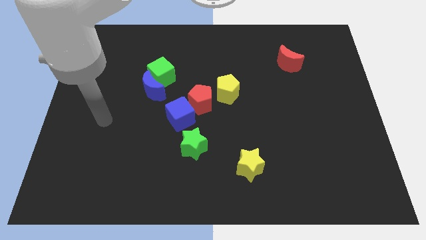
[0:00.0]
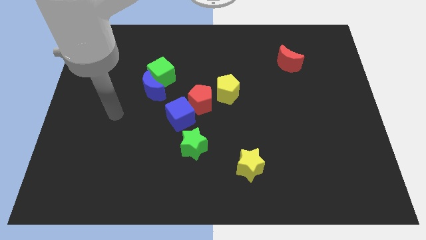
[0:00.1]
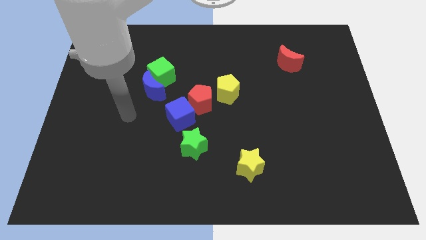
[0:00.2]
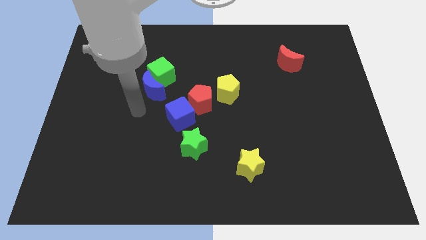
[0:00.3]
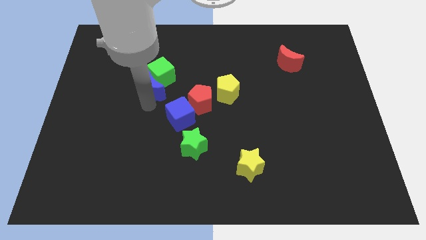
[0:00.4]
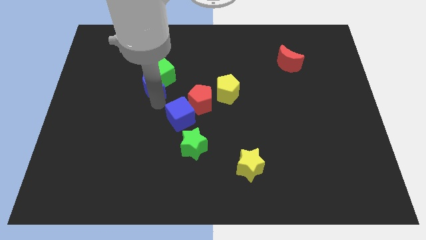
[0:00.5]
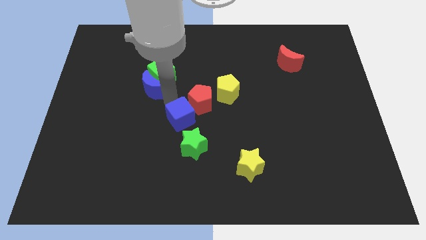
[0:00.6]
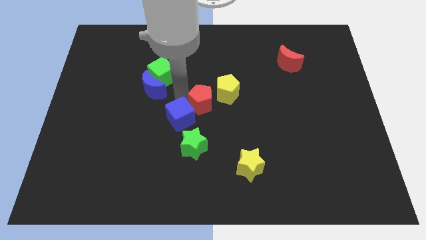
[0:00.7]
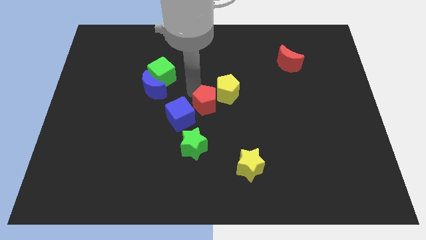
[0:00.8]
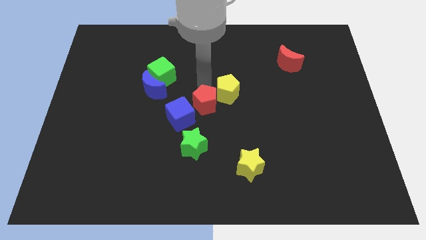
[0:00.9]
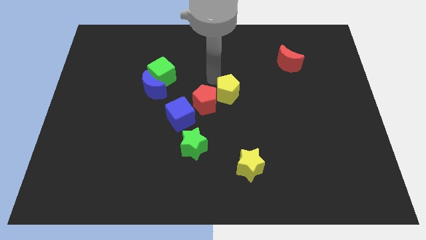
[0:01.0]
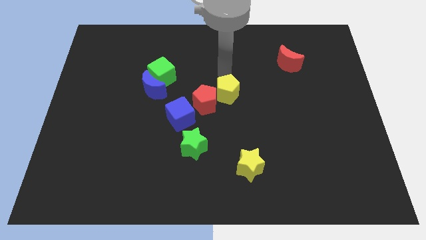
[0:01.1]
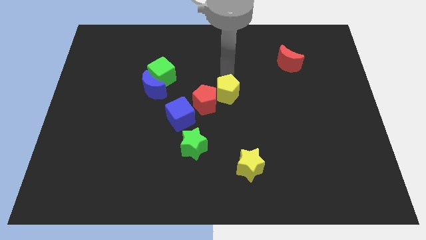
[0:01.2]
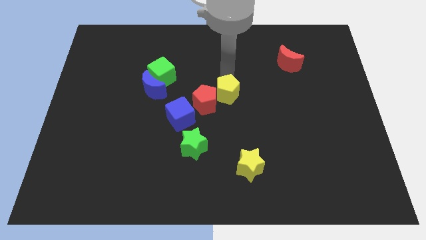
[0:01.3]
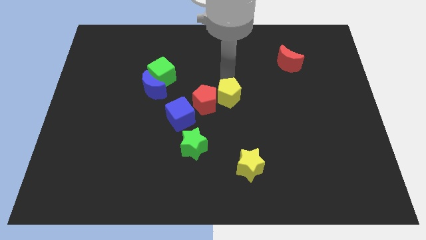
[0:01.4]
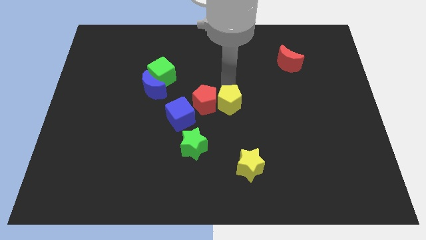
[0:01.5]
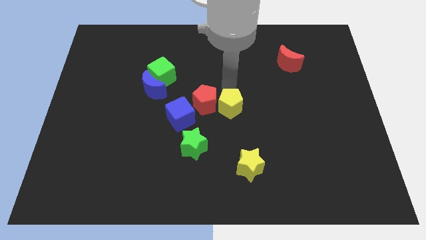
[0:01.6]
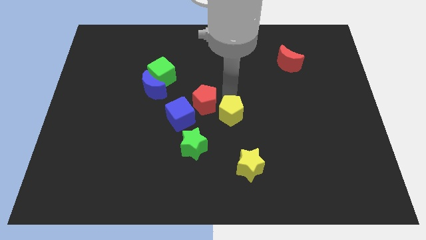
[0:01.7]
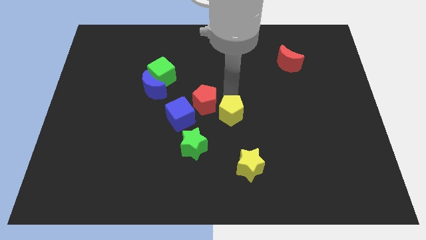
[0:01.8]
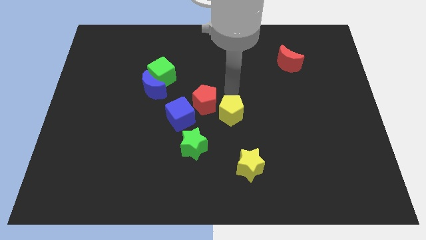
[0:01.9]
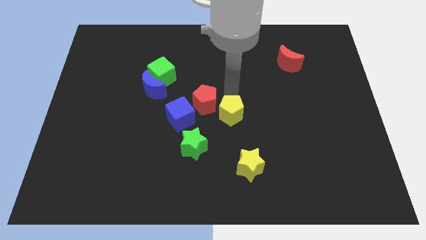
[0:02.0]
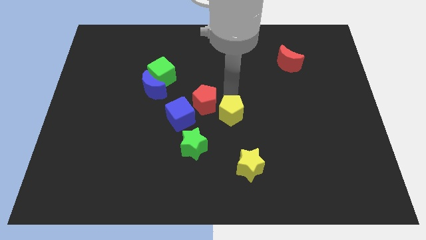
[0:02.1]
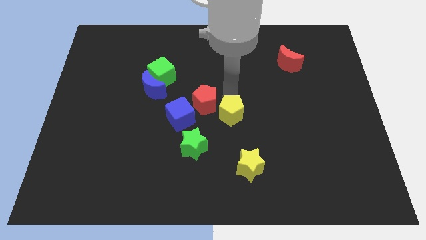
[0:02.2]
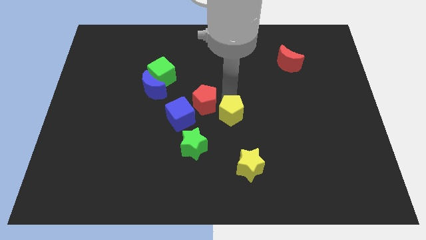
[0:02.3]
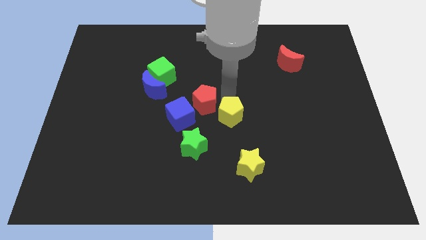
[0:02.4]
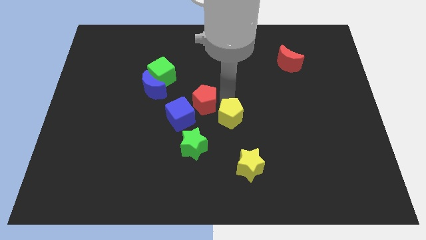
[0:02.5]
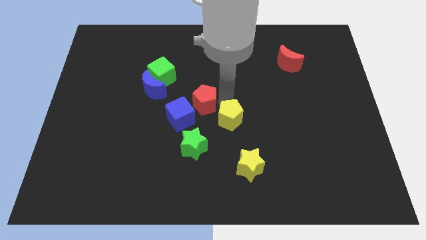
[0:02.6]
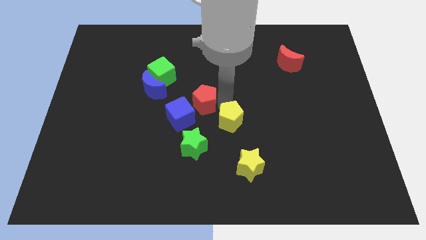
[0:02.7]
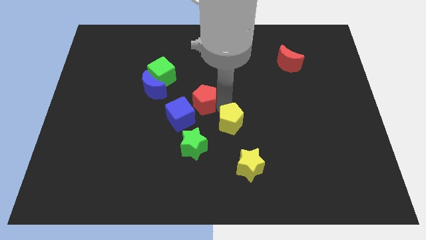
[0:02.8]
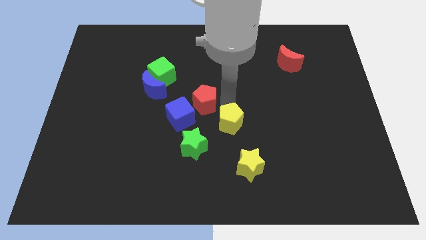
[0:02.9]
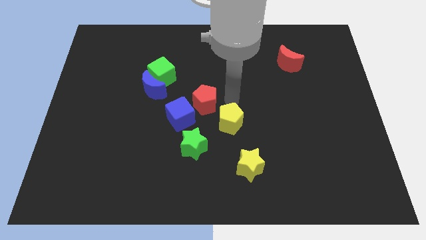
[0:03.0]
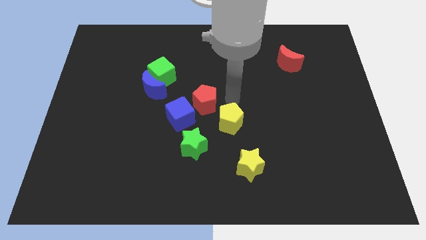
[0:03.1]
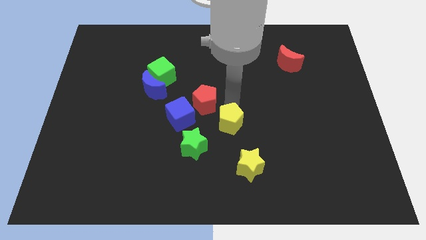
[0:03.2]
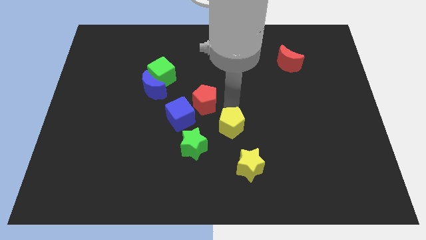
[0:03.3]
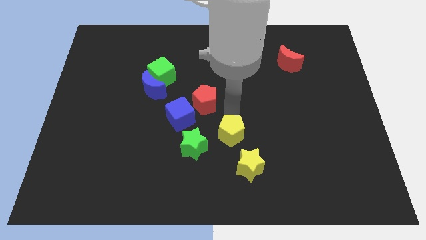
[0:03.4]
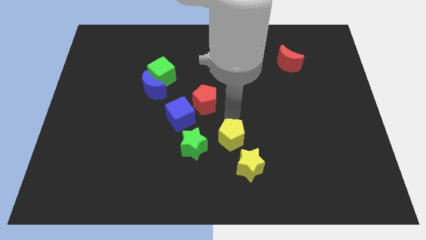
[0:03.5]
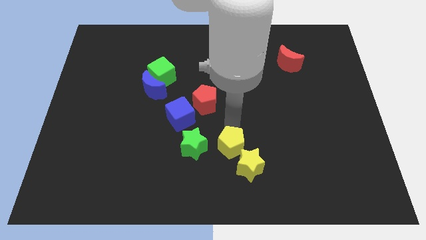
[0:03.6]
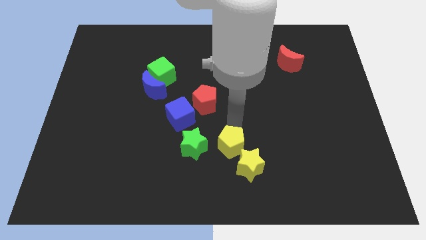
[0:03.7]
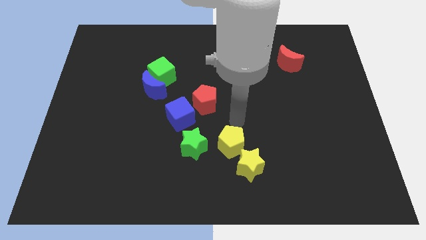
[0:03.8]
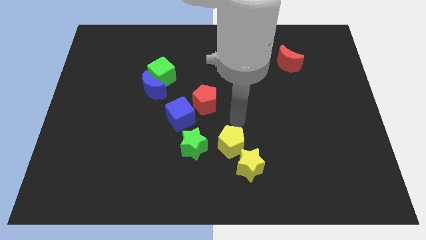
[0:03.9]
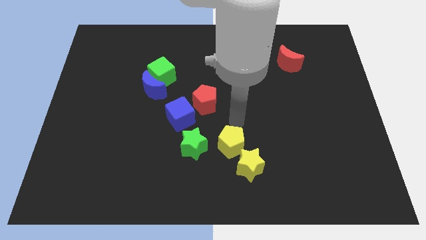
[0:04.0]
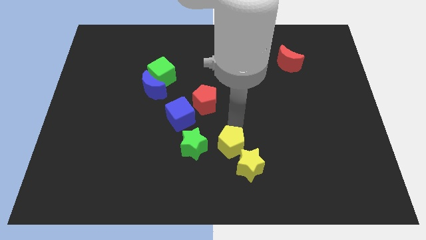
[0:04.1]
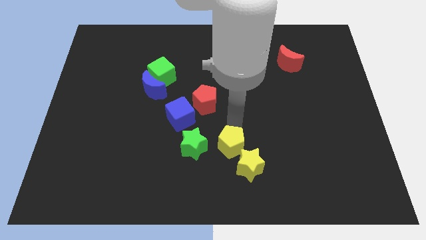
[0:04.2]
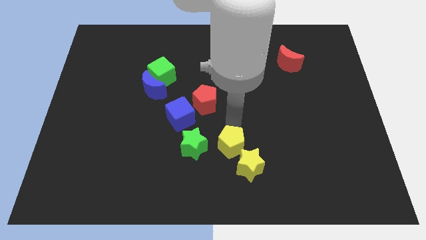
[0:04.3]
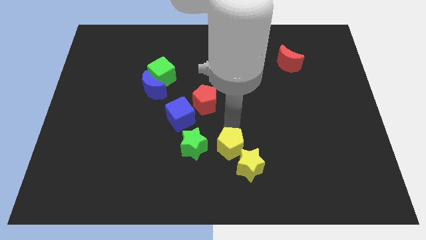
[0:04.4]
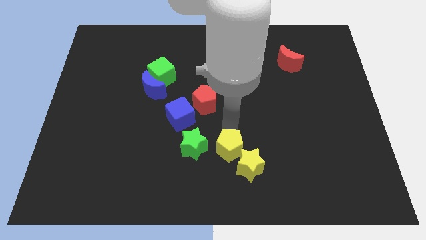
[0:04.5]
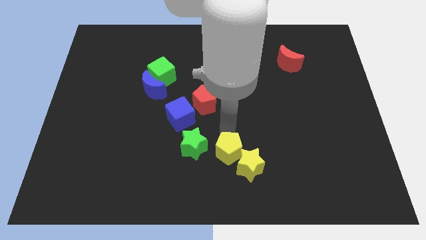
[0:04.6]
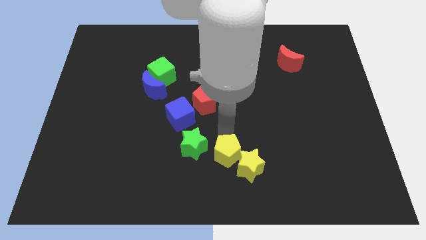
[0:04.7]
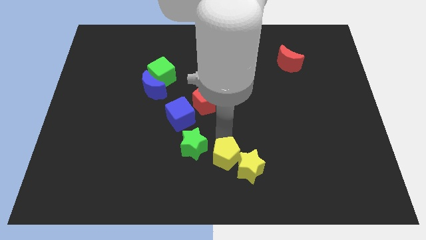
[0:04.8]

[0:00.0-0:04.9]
slide the yellow pentagon to the bottom side

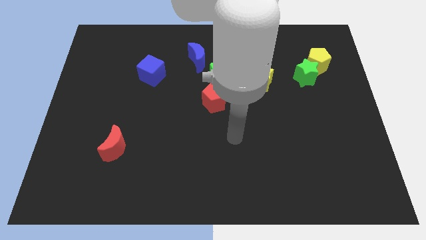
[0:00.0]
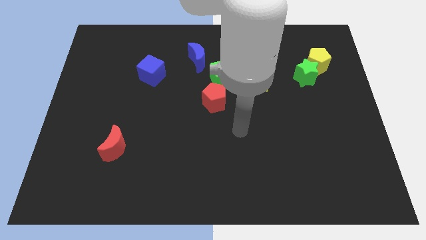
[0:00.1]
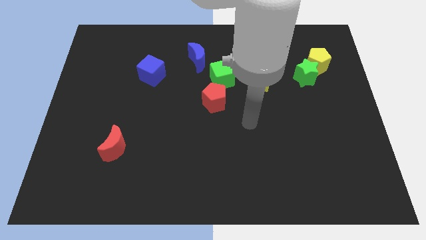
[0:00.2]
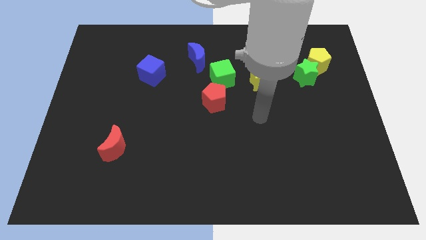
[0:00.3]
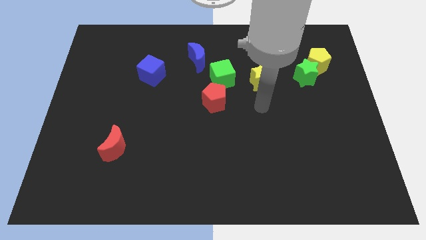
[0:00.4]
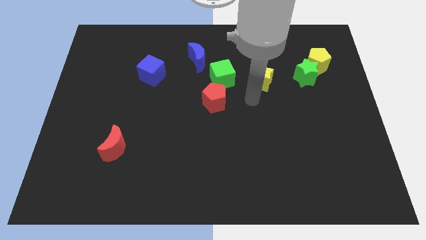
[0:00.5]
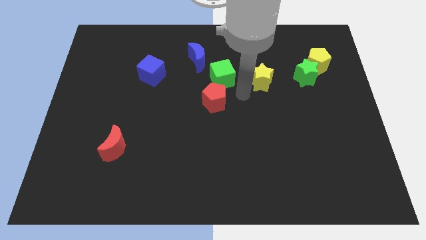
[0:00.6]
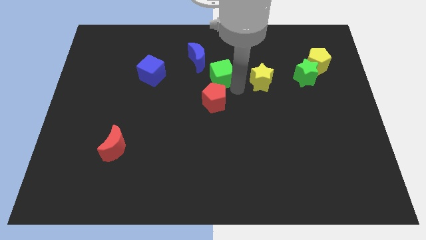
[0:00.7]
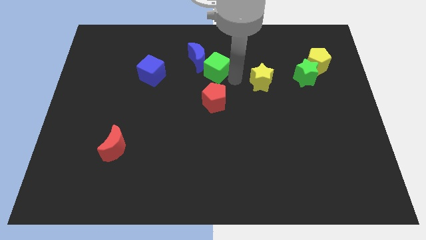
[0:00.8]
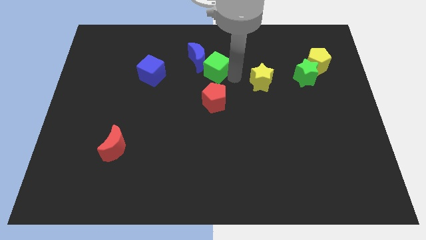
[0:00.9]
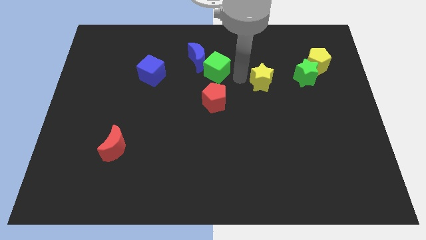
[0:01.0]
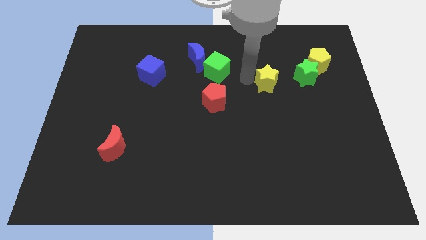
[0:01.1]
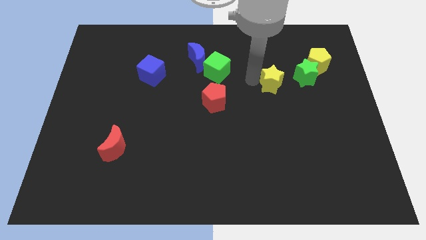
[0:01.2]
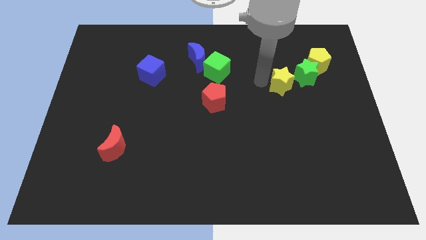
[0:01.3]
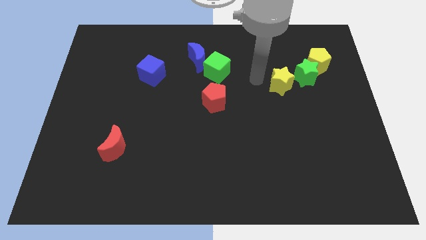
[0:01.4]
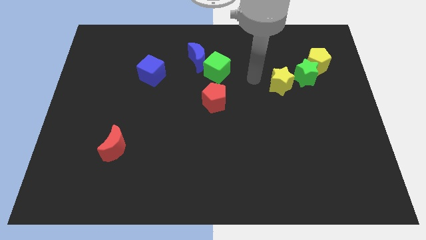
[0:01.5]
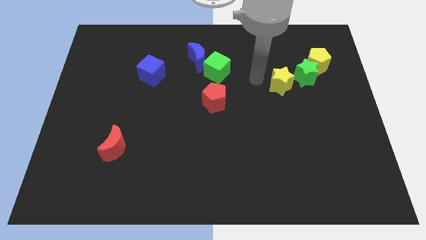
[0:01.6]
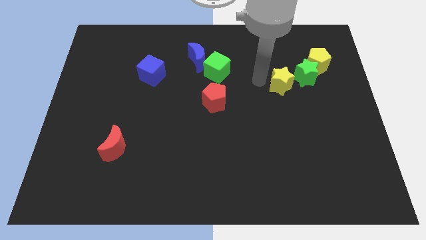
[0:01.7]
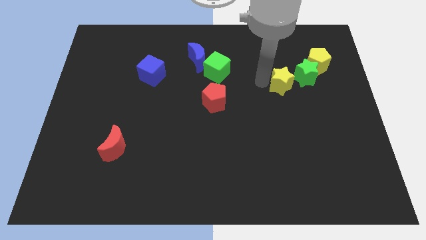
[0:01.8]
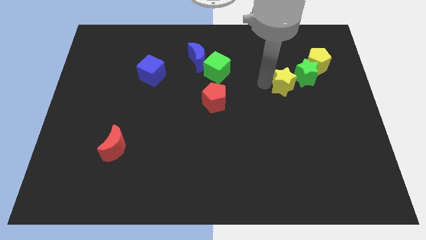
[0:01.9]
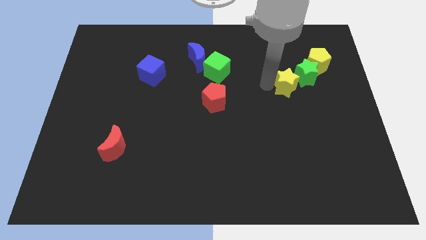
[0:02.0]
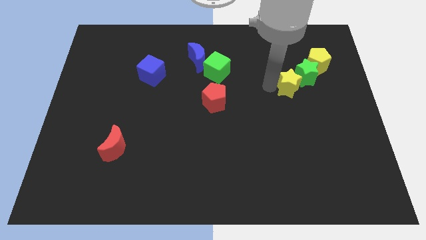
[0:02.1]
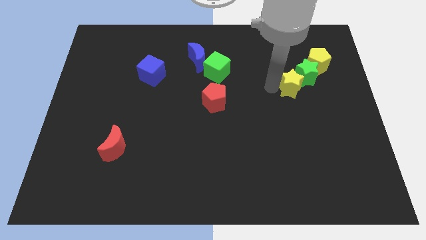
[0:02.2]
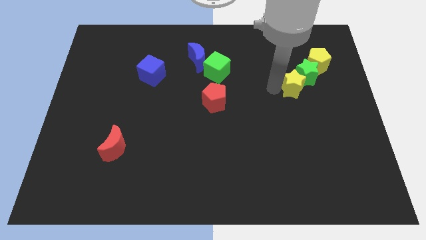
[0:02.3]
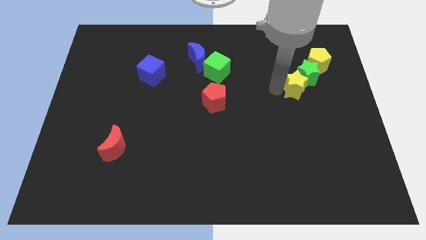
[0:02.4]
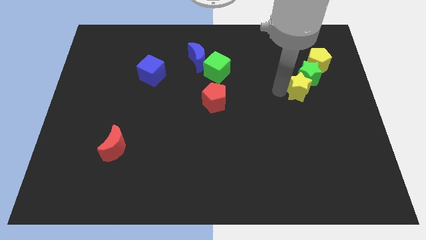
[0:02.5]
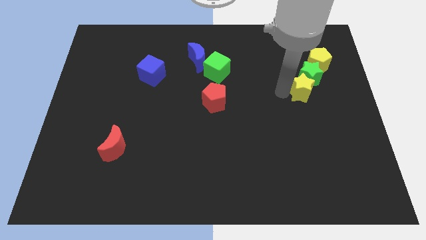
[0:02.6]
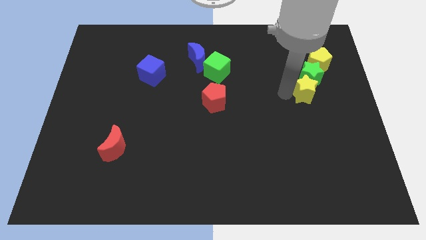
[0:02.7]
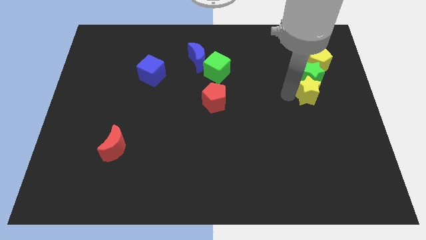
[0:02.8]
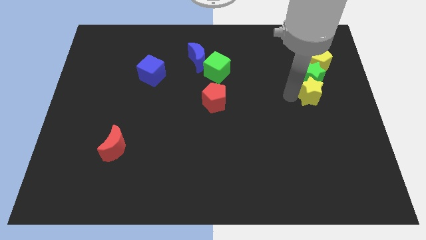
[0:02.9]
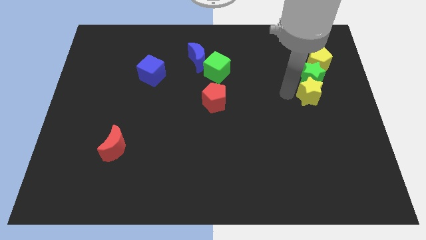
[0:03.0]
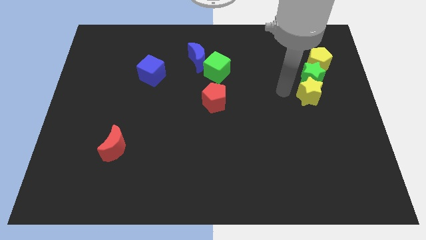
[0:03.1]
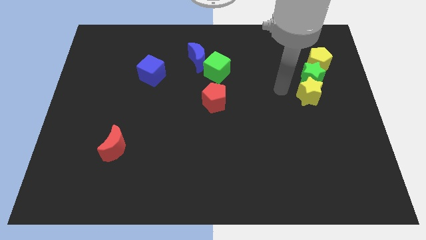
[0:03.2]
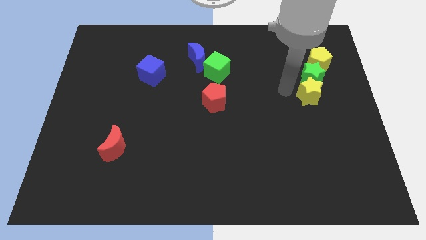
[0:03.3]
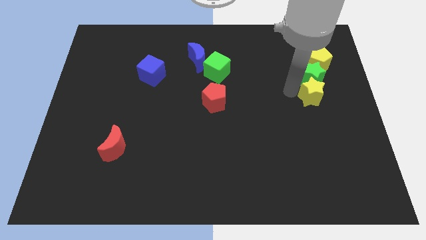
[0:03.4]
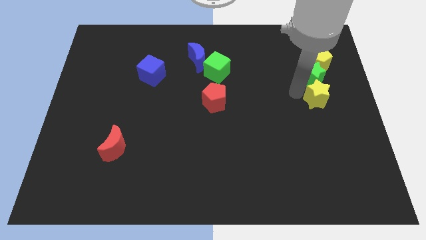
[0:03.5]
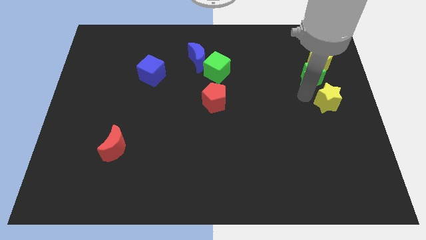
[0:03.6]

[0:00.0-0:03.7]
put the yellow star to the center right
